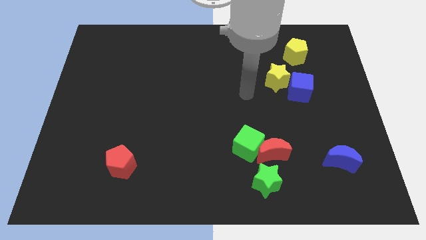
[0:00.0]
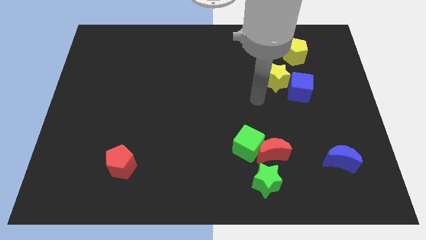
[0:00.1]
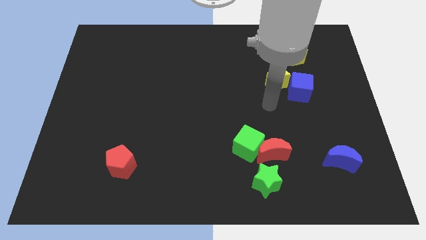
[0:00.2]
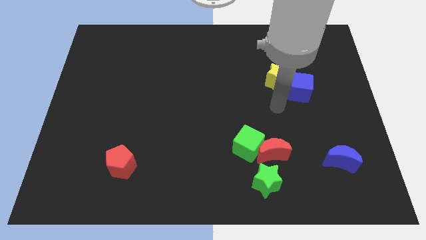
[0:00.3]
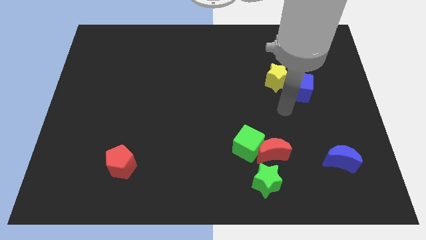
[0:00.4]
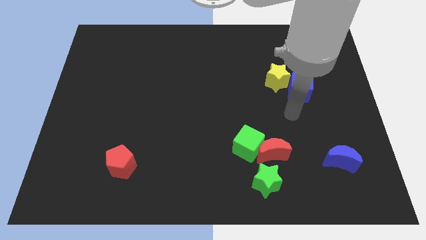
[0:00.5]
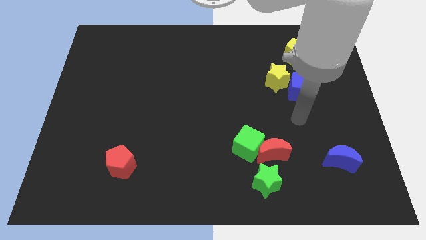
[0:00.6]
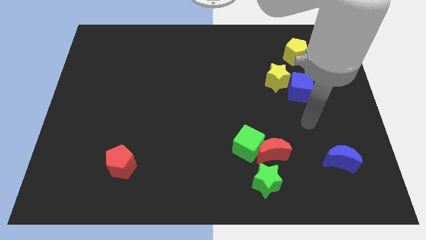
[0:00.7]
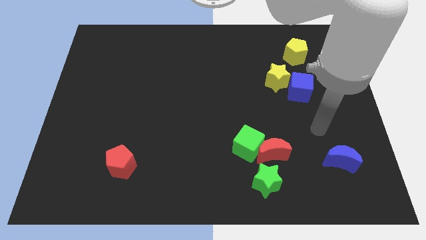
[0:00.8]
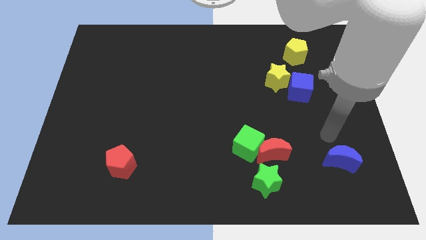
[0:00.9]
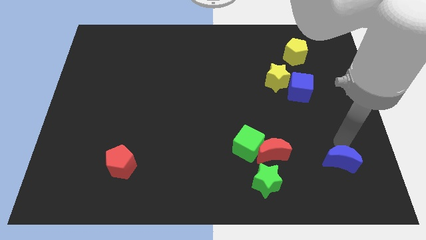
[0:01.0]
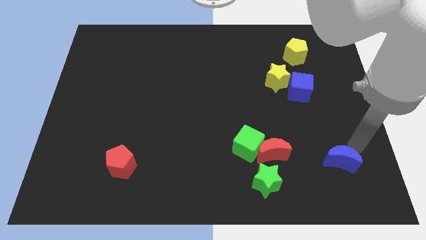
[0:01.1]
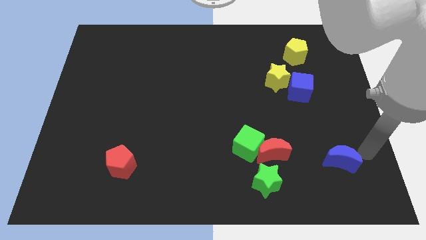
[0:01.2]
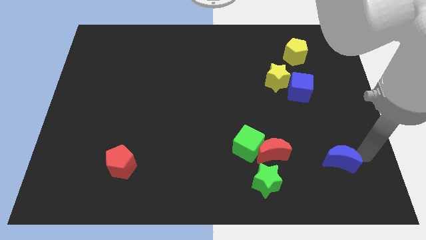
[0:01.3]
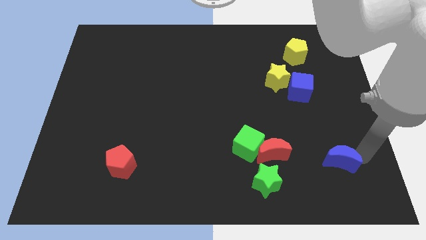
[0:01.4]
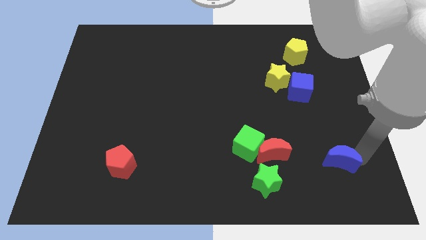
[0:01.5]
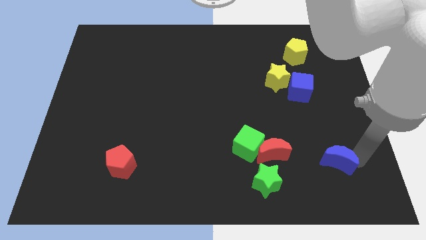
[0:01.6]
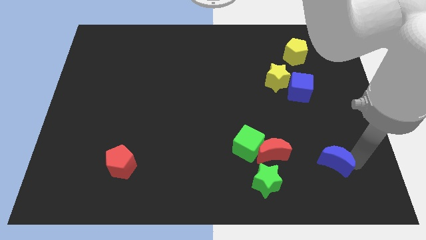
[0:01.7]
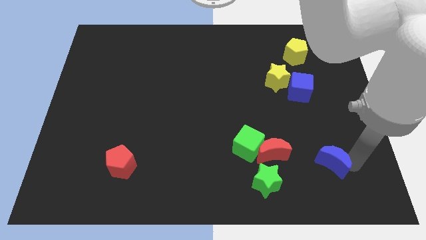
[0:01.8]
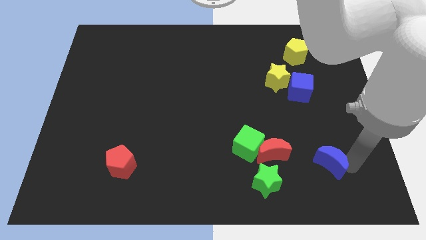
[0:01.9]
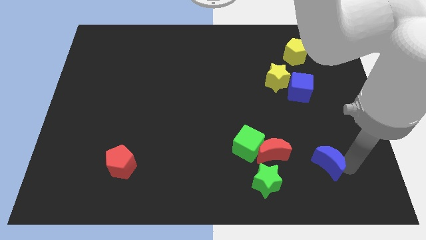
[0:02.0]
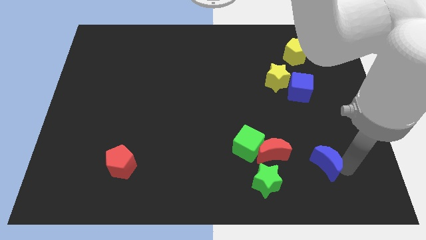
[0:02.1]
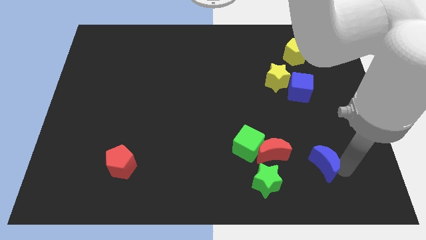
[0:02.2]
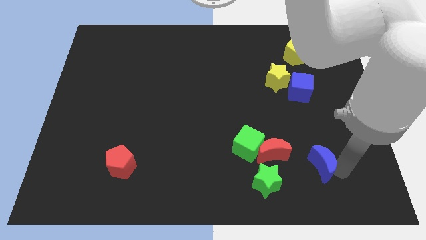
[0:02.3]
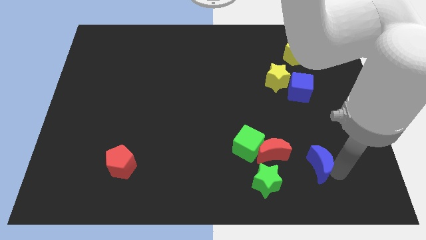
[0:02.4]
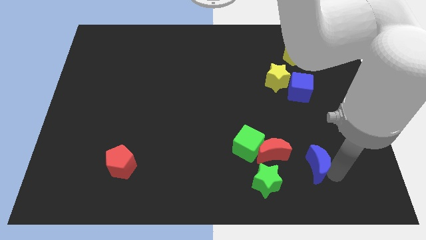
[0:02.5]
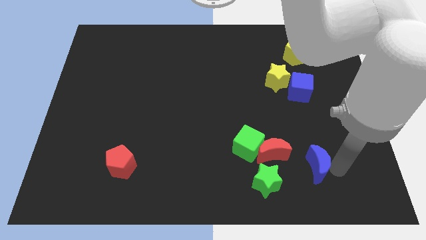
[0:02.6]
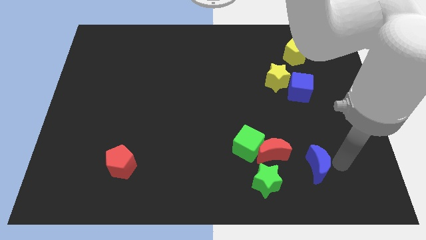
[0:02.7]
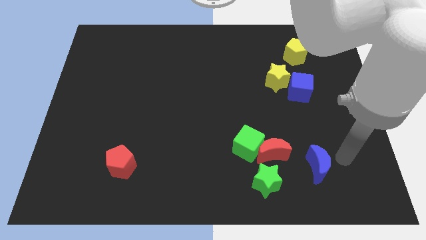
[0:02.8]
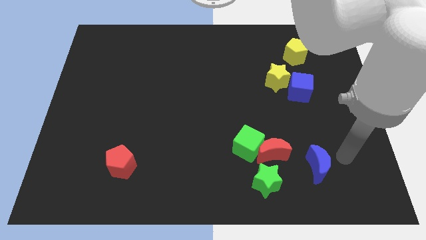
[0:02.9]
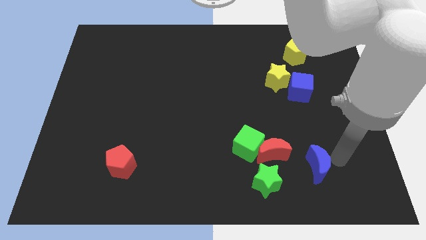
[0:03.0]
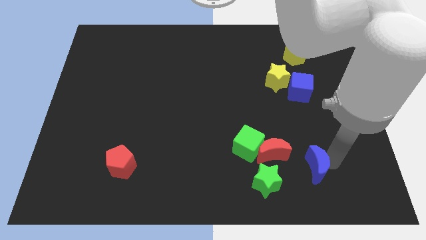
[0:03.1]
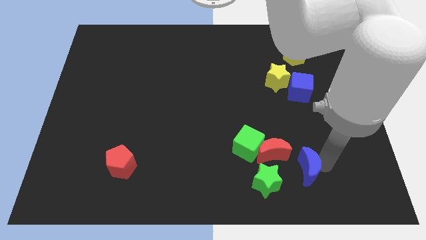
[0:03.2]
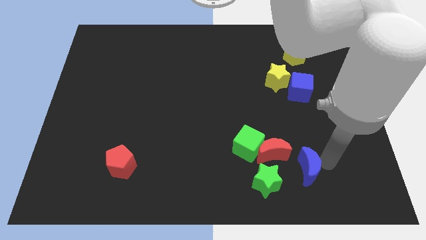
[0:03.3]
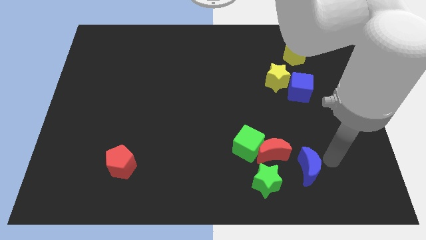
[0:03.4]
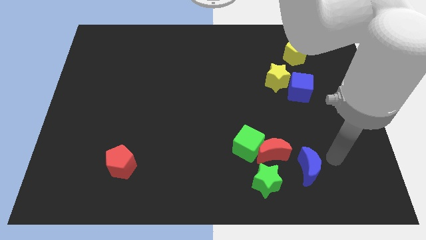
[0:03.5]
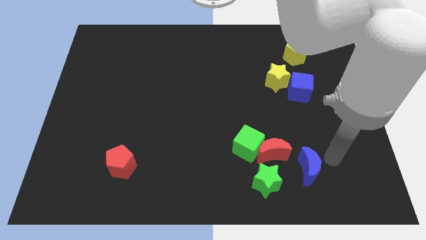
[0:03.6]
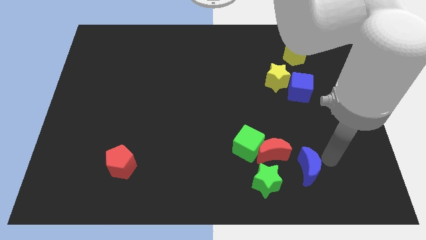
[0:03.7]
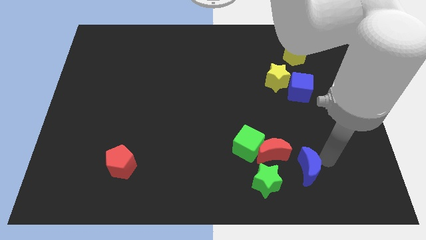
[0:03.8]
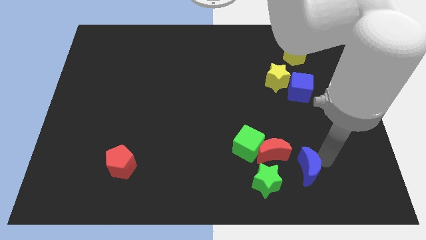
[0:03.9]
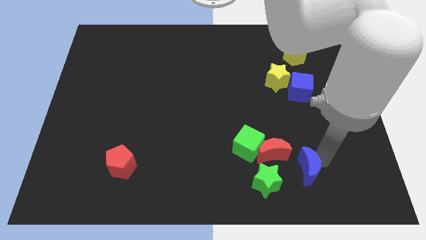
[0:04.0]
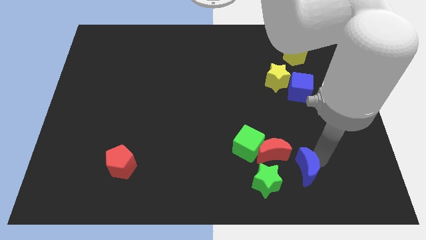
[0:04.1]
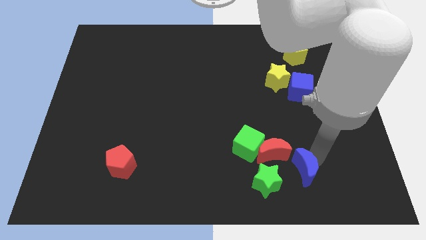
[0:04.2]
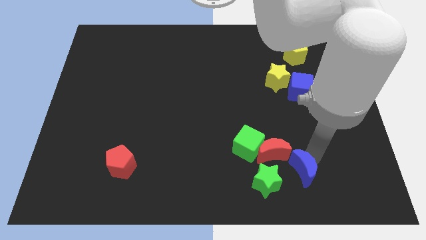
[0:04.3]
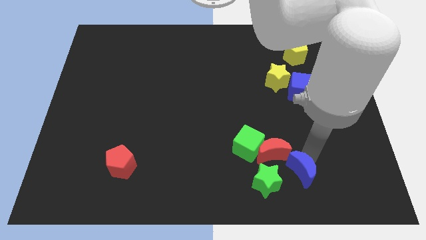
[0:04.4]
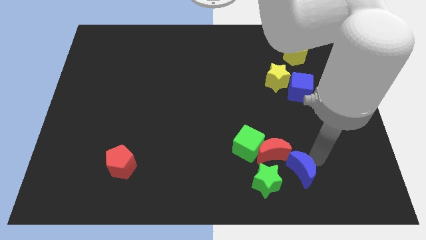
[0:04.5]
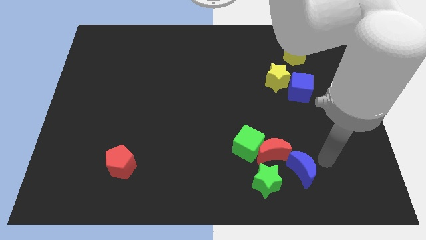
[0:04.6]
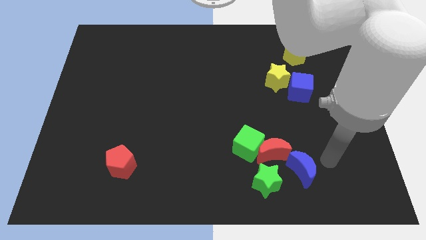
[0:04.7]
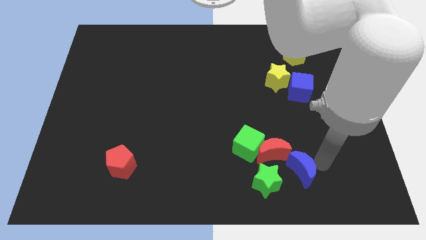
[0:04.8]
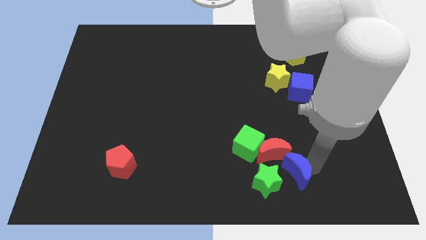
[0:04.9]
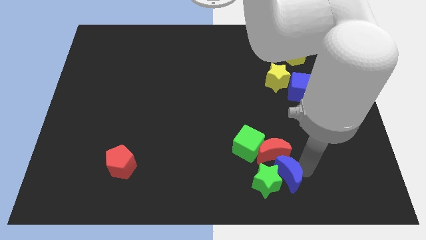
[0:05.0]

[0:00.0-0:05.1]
push the blue moon close to the green star

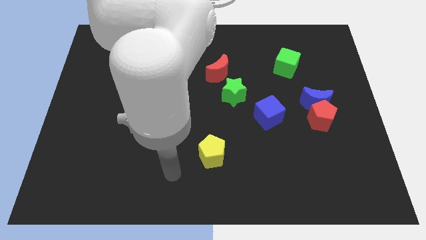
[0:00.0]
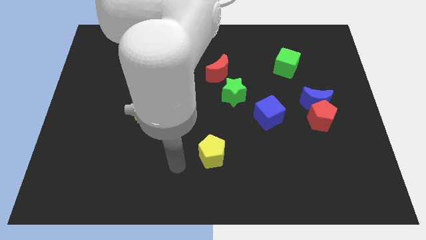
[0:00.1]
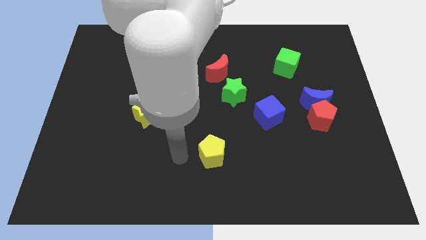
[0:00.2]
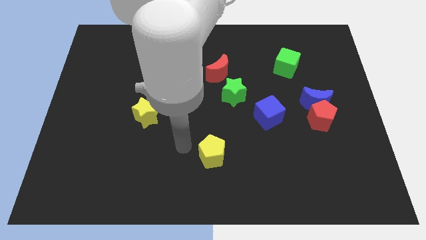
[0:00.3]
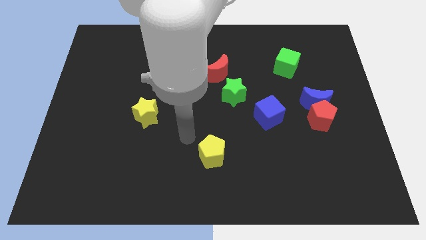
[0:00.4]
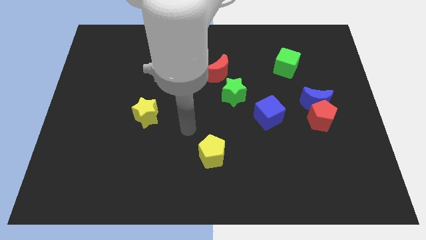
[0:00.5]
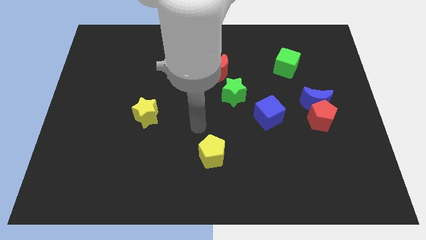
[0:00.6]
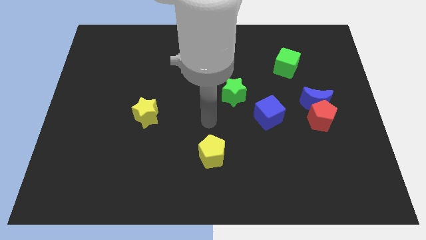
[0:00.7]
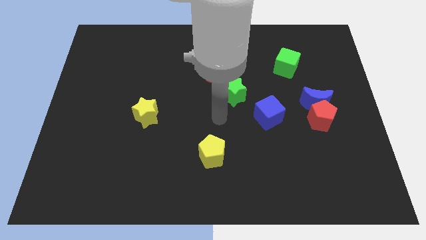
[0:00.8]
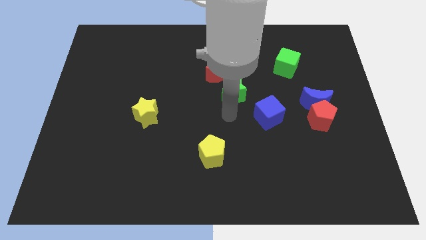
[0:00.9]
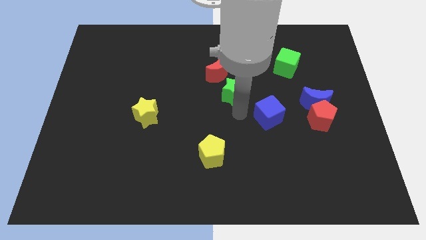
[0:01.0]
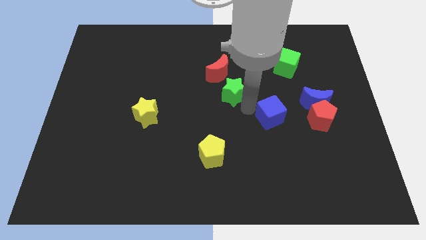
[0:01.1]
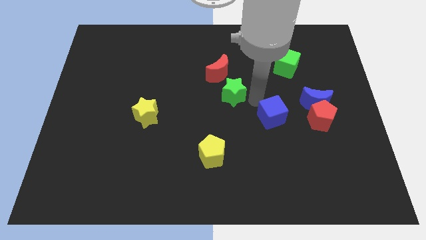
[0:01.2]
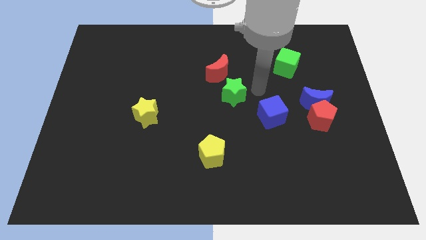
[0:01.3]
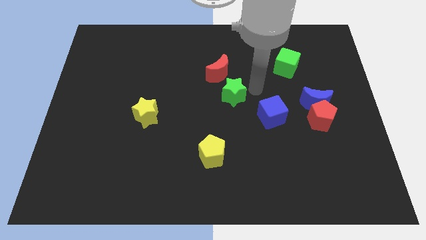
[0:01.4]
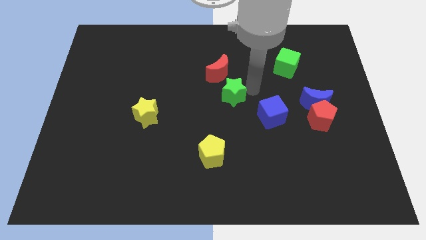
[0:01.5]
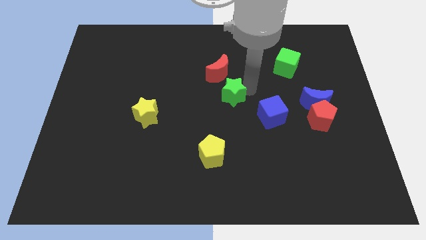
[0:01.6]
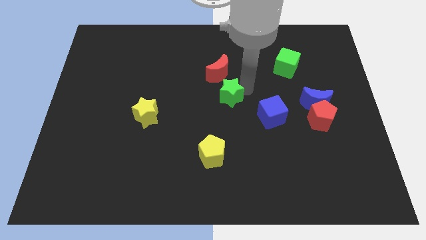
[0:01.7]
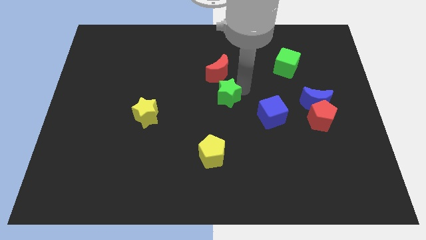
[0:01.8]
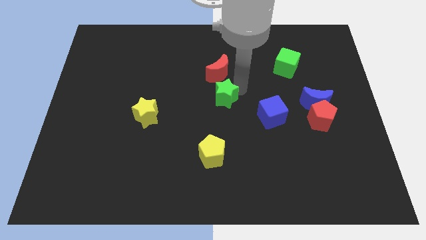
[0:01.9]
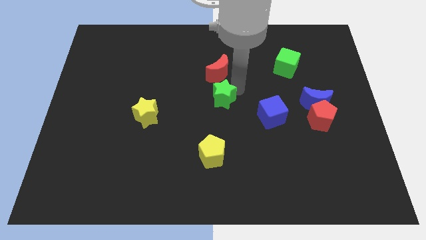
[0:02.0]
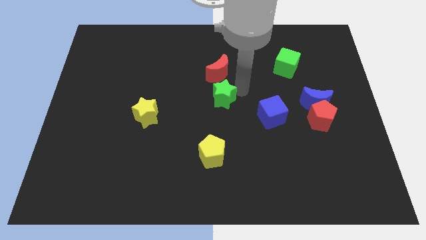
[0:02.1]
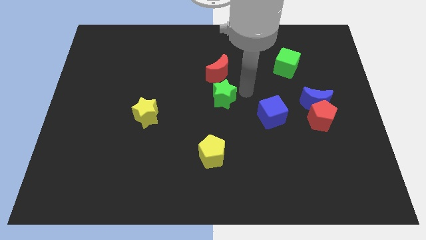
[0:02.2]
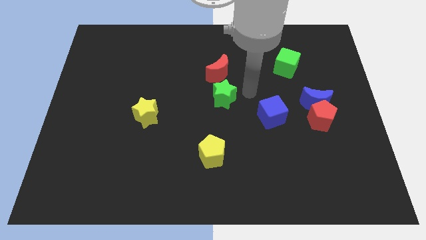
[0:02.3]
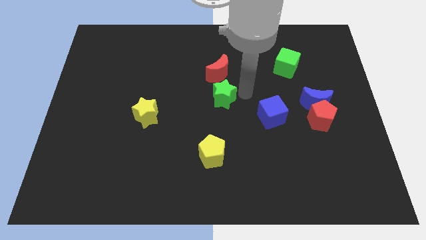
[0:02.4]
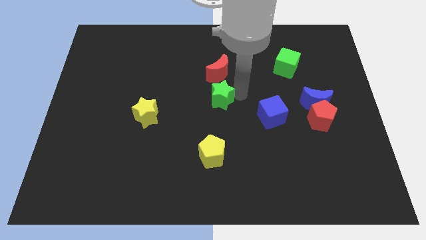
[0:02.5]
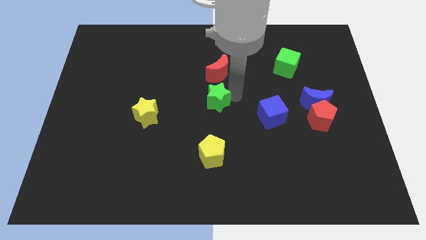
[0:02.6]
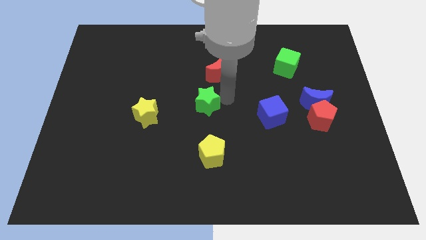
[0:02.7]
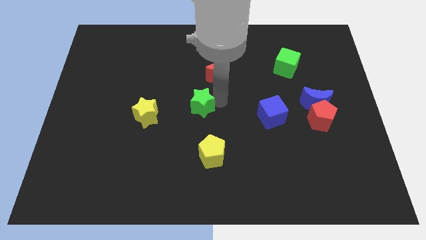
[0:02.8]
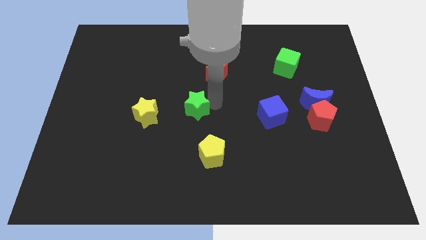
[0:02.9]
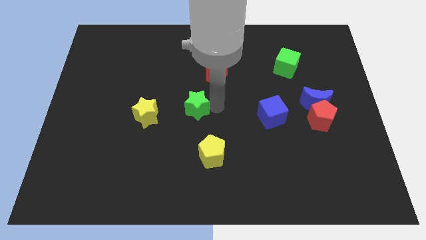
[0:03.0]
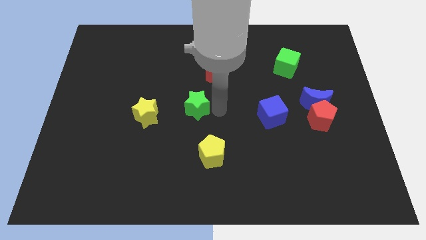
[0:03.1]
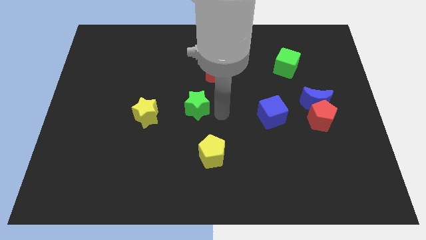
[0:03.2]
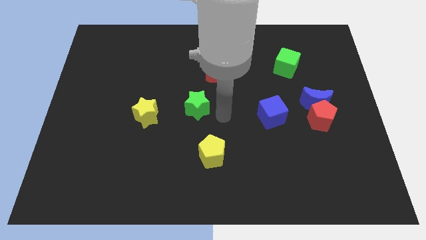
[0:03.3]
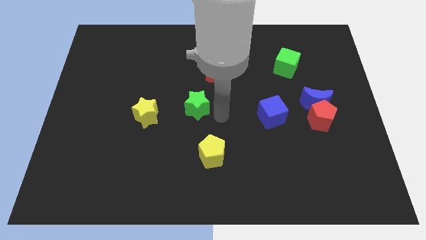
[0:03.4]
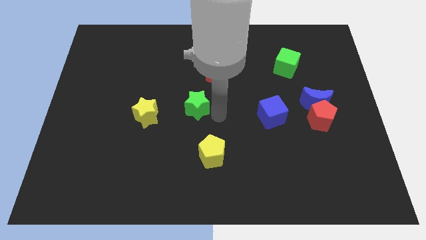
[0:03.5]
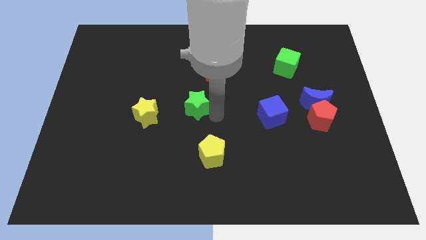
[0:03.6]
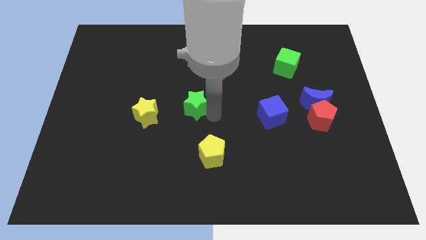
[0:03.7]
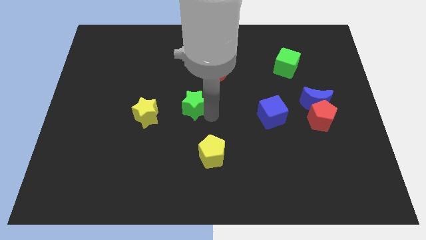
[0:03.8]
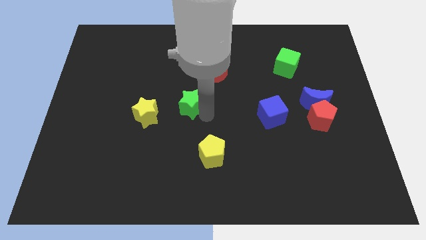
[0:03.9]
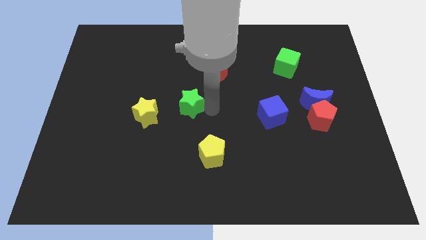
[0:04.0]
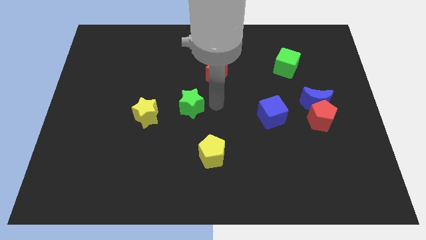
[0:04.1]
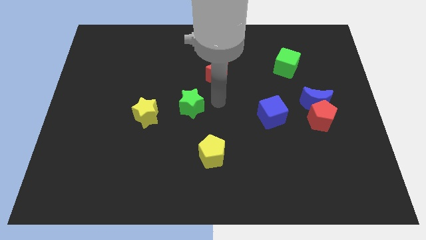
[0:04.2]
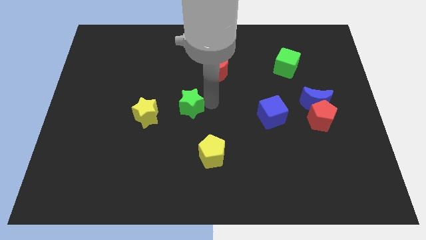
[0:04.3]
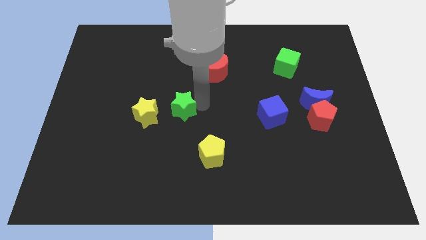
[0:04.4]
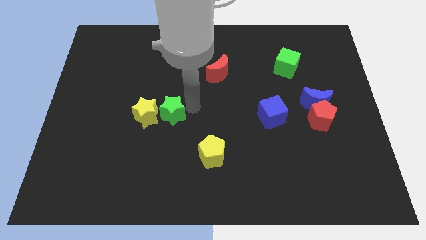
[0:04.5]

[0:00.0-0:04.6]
move the green star close to the yellow star
